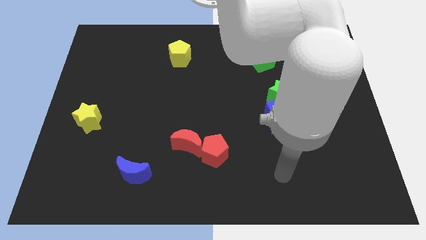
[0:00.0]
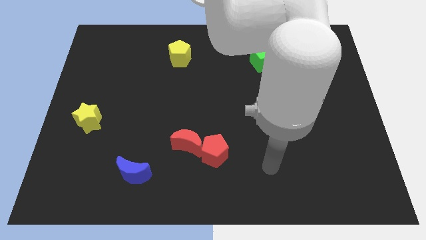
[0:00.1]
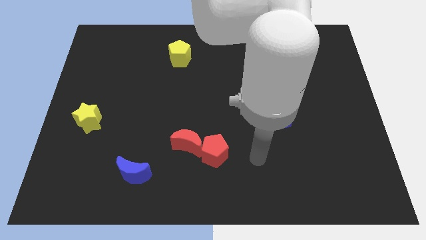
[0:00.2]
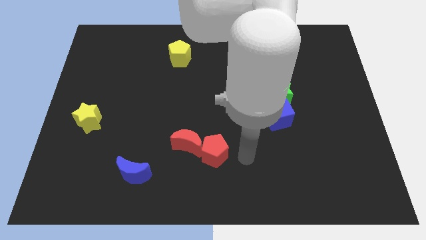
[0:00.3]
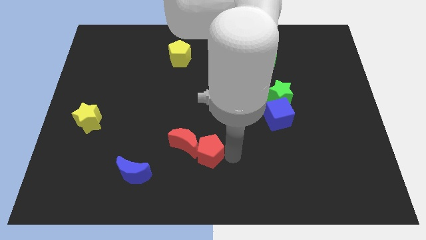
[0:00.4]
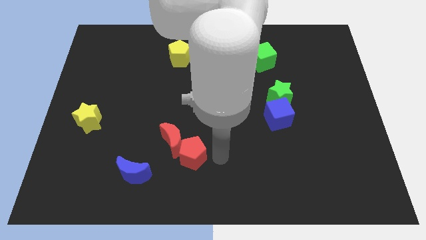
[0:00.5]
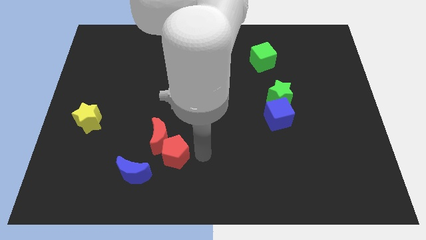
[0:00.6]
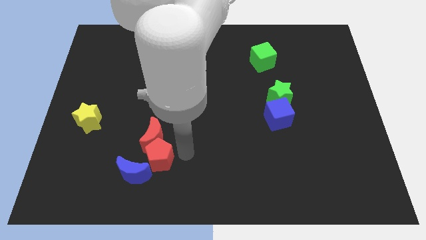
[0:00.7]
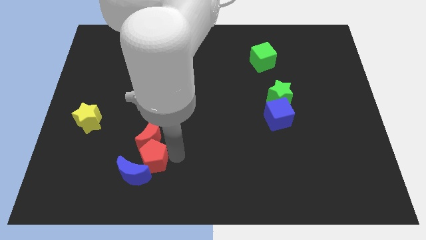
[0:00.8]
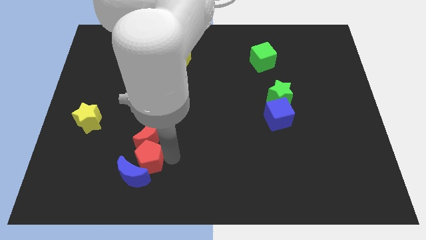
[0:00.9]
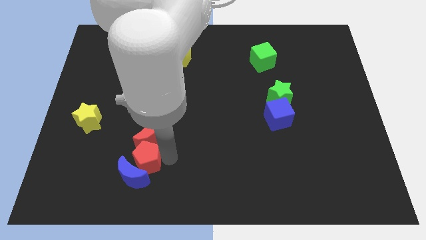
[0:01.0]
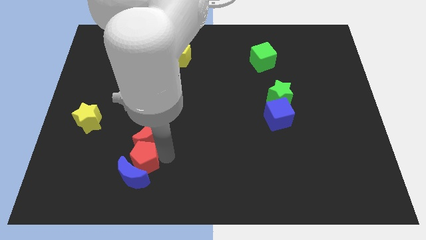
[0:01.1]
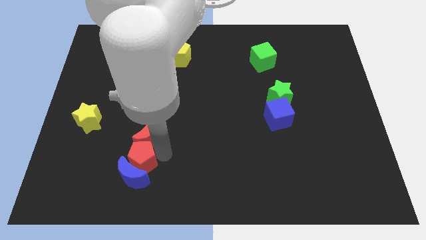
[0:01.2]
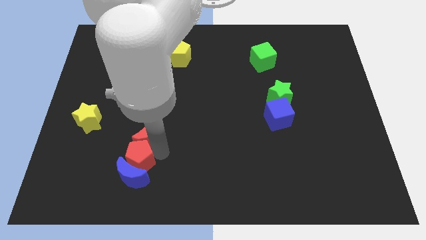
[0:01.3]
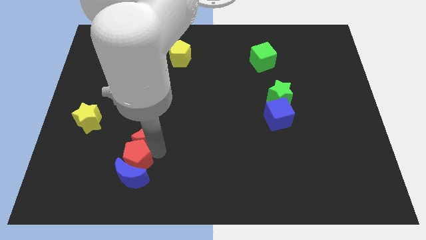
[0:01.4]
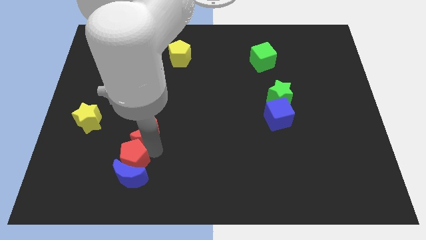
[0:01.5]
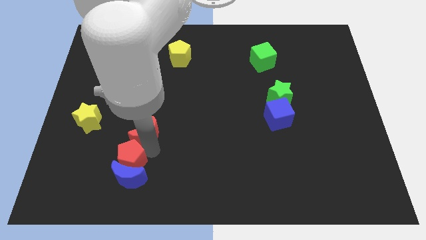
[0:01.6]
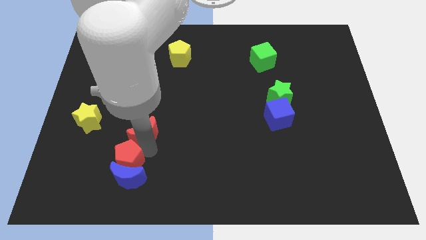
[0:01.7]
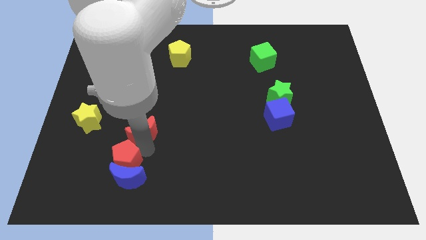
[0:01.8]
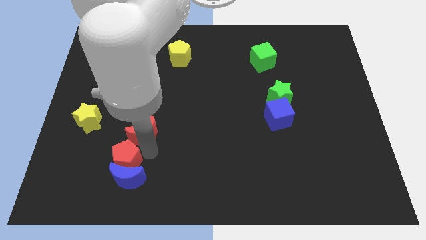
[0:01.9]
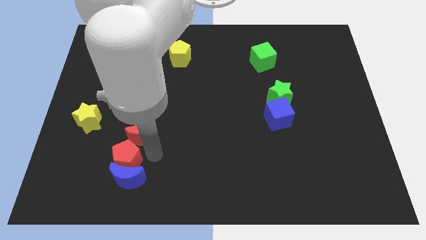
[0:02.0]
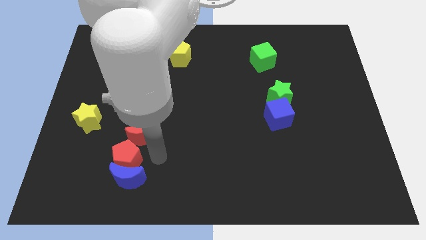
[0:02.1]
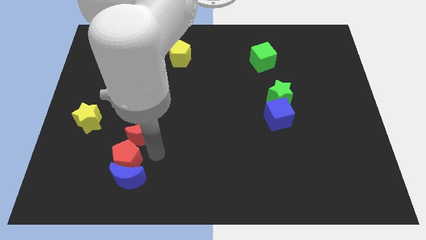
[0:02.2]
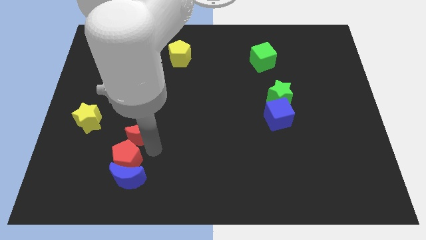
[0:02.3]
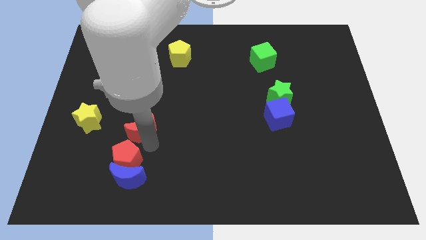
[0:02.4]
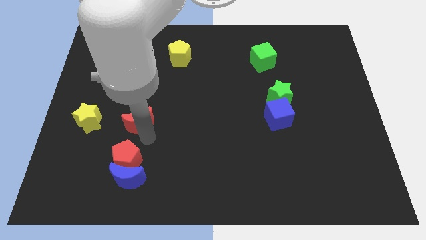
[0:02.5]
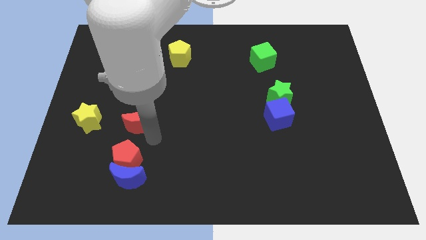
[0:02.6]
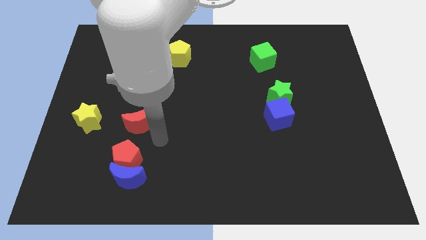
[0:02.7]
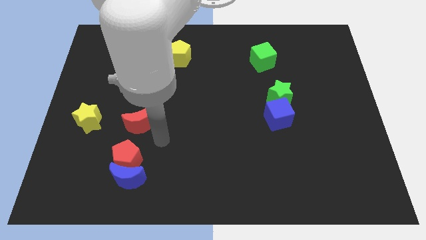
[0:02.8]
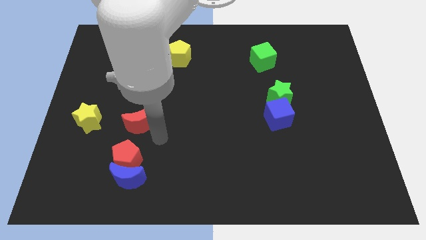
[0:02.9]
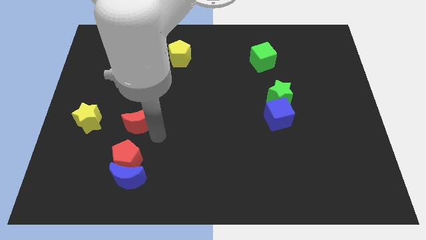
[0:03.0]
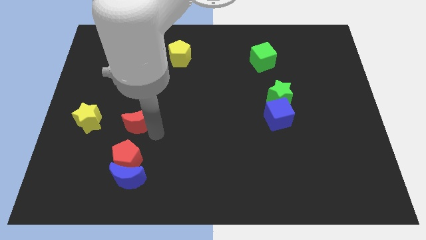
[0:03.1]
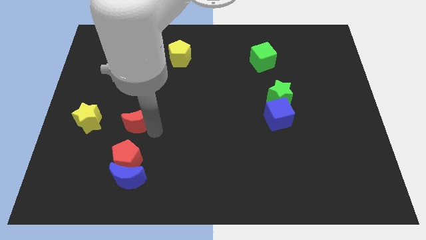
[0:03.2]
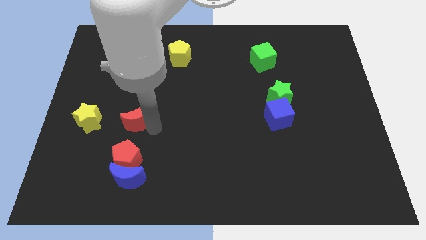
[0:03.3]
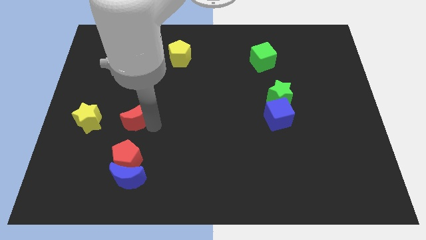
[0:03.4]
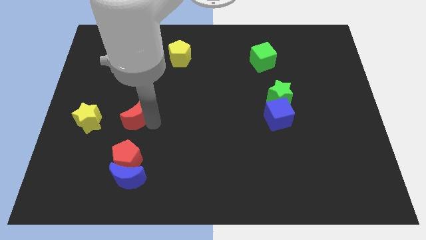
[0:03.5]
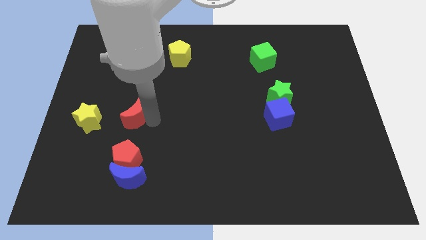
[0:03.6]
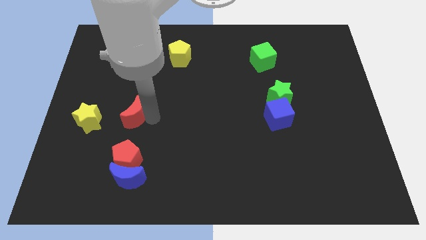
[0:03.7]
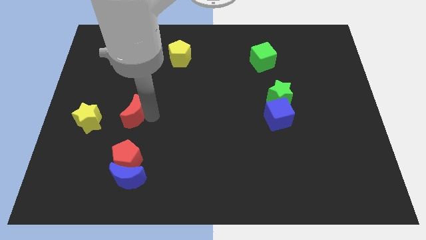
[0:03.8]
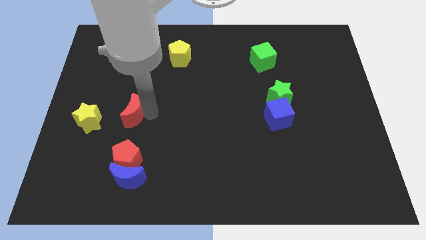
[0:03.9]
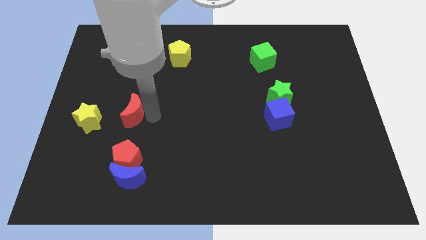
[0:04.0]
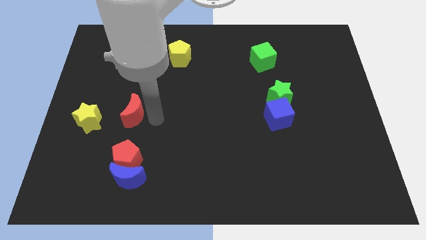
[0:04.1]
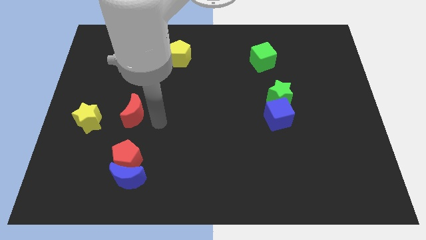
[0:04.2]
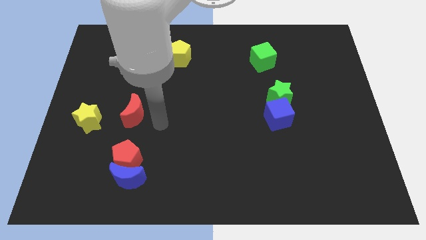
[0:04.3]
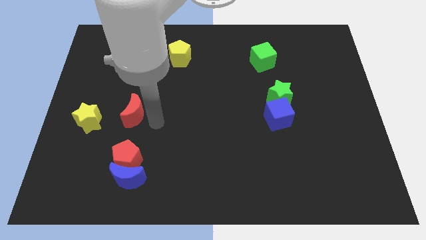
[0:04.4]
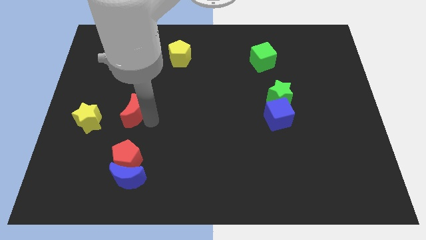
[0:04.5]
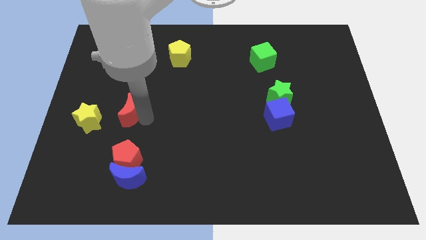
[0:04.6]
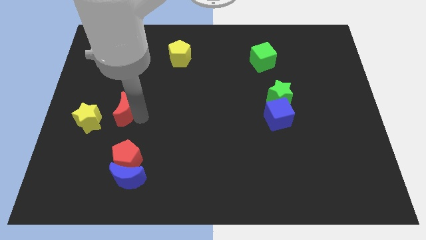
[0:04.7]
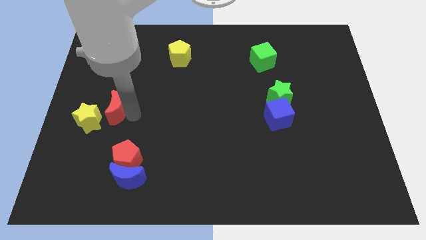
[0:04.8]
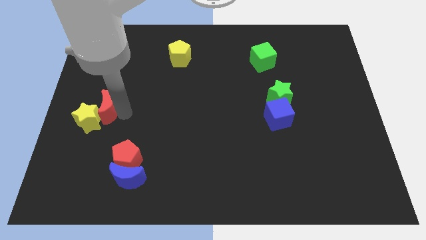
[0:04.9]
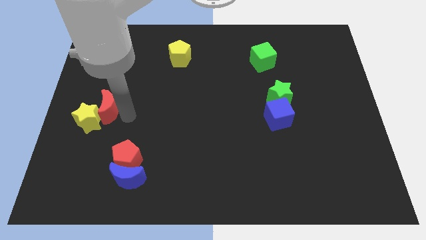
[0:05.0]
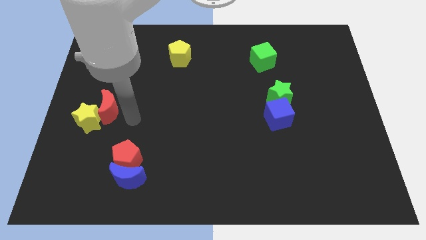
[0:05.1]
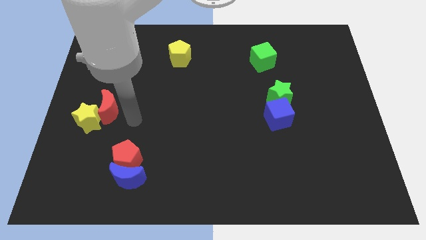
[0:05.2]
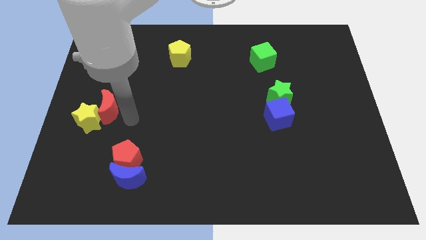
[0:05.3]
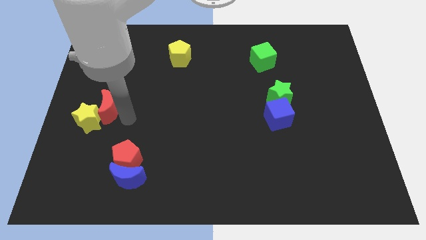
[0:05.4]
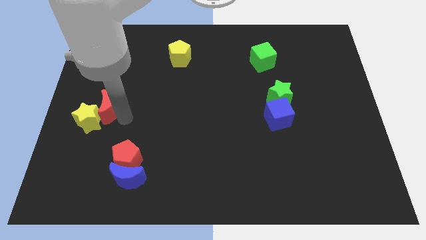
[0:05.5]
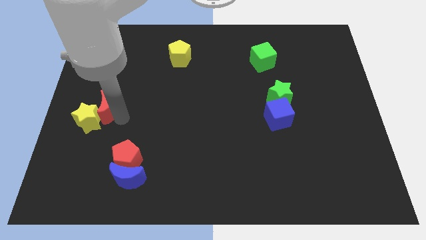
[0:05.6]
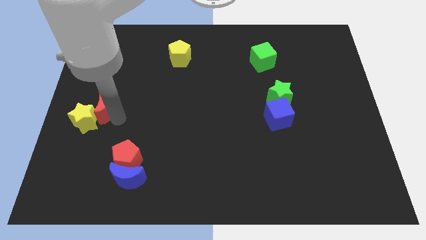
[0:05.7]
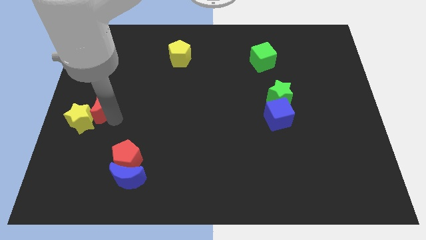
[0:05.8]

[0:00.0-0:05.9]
move the red moon to the center left

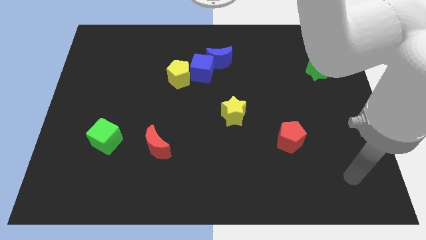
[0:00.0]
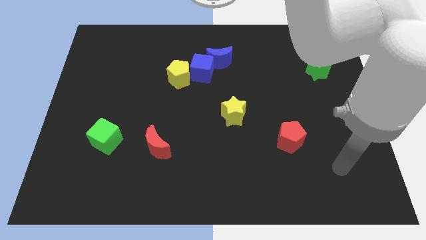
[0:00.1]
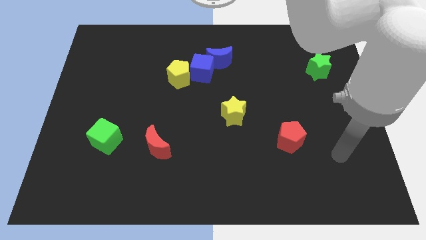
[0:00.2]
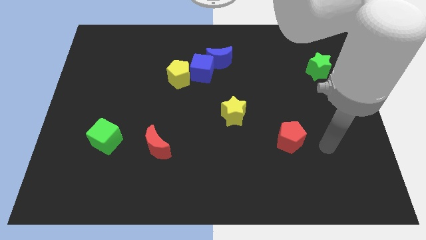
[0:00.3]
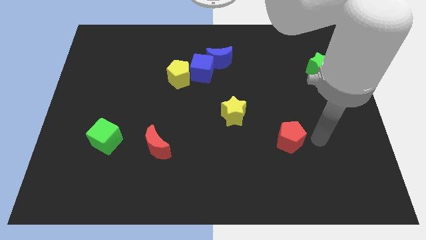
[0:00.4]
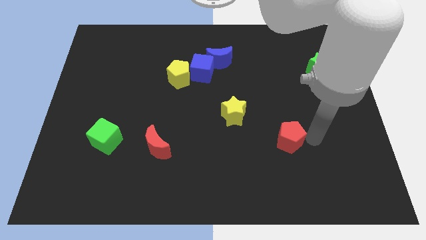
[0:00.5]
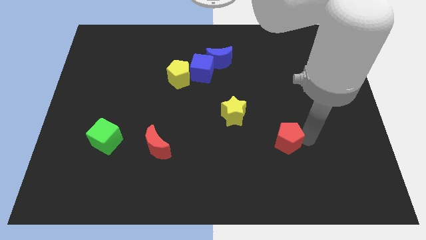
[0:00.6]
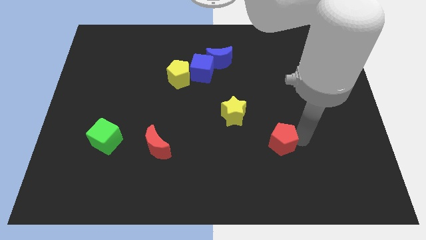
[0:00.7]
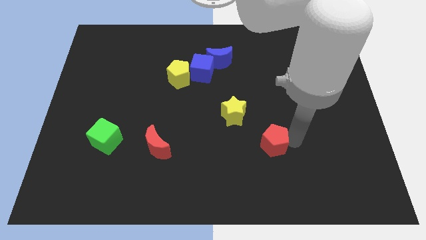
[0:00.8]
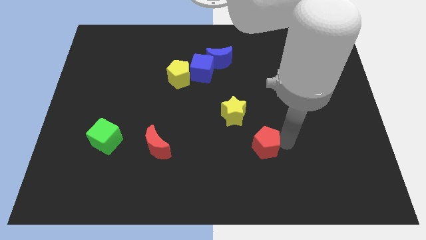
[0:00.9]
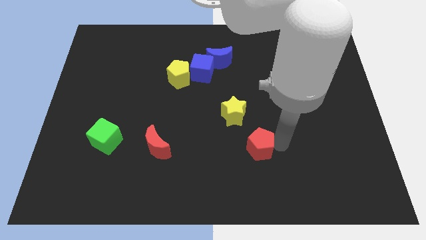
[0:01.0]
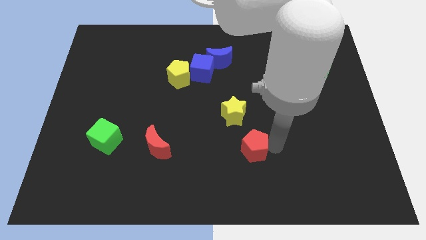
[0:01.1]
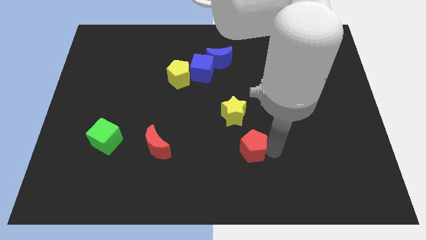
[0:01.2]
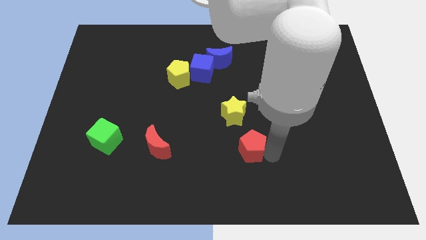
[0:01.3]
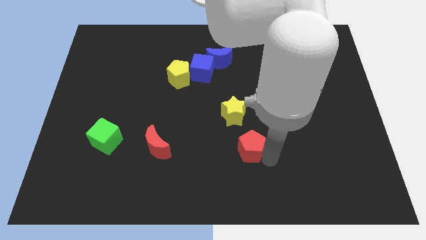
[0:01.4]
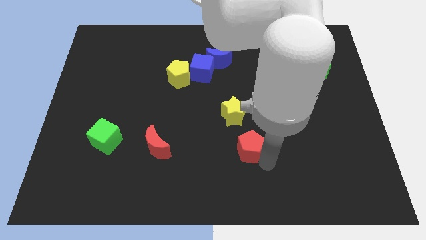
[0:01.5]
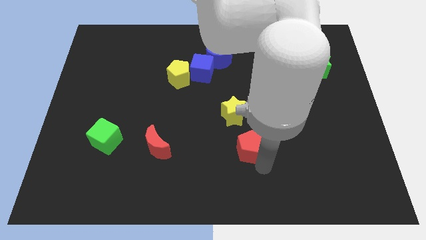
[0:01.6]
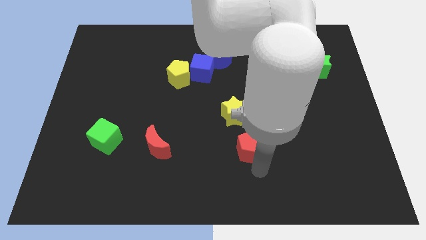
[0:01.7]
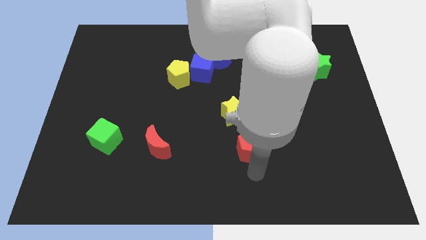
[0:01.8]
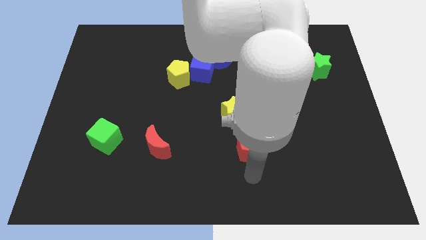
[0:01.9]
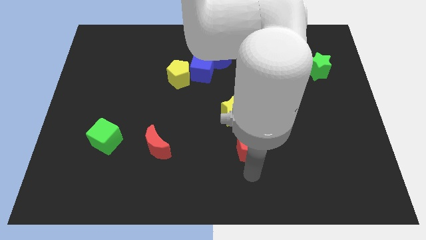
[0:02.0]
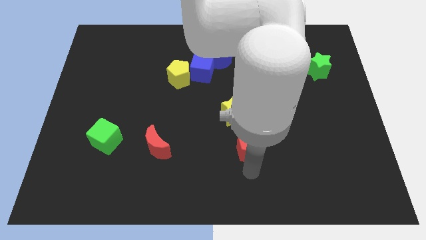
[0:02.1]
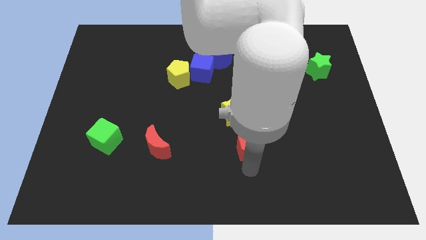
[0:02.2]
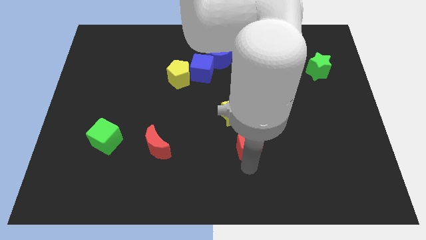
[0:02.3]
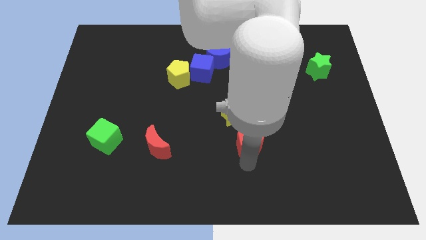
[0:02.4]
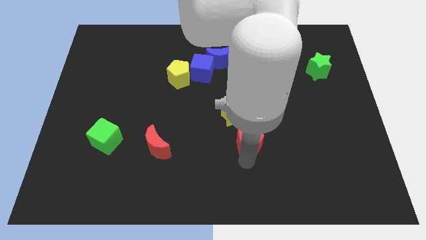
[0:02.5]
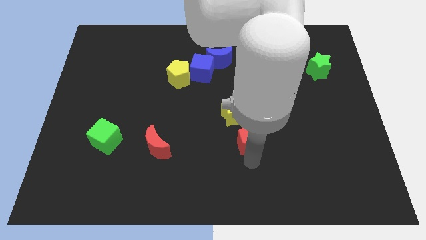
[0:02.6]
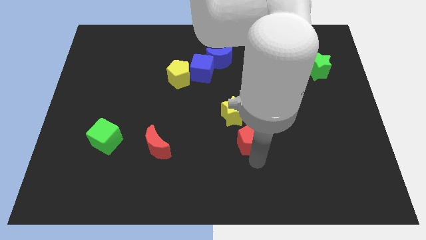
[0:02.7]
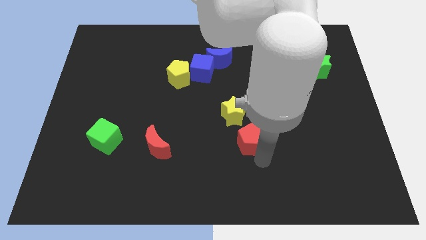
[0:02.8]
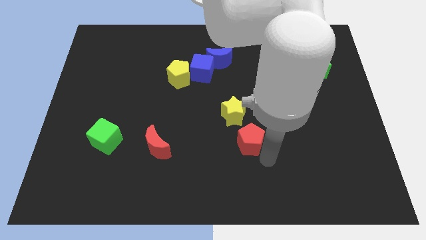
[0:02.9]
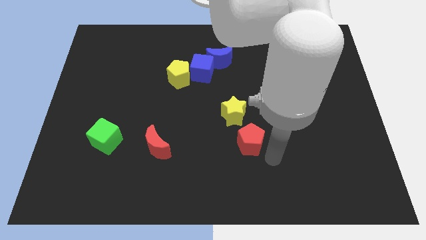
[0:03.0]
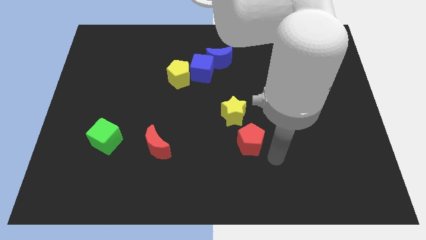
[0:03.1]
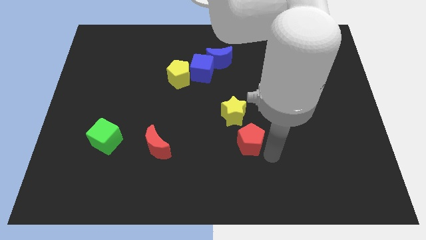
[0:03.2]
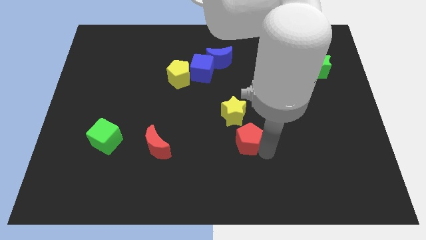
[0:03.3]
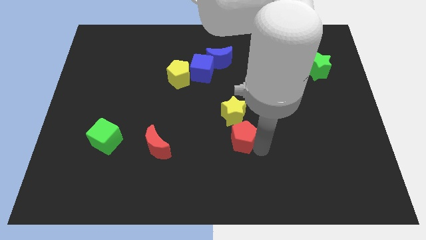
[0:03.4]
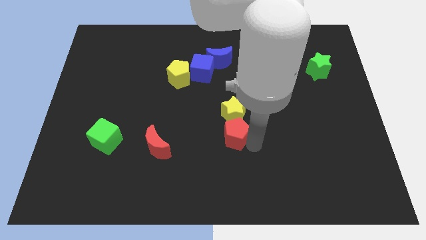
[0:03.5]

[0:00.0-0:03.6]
put the red pentagon to the middle
